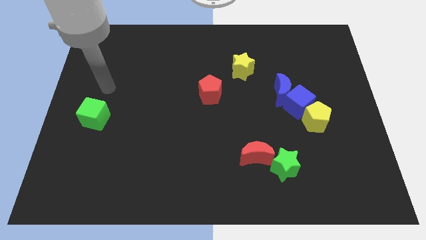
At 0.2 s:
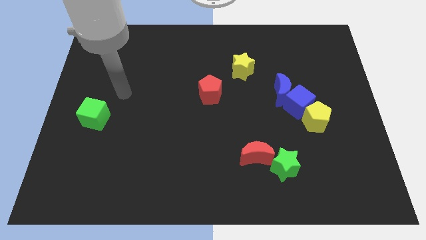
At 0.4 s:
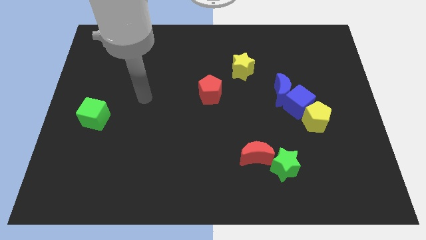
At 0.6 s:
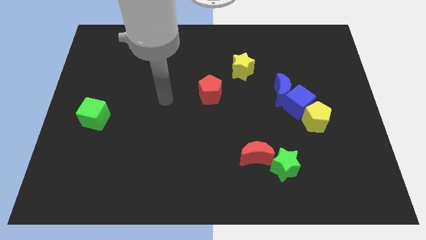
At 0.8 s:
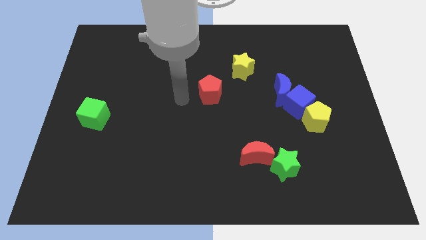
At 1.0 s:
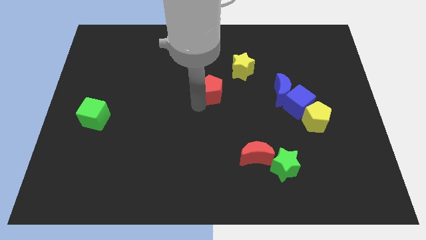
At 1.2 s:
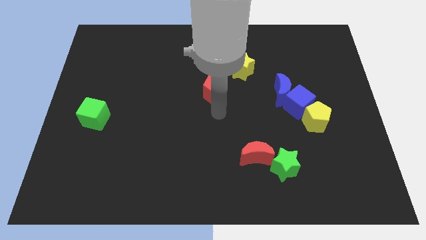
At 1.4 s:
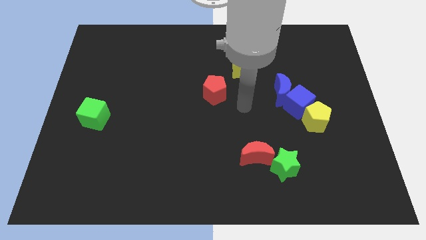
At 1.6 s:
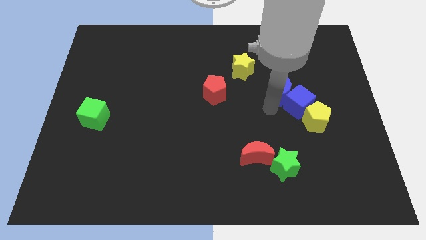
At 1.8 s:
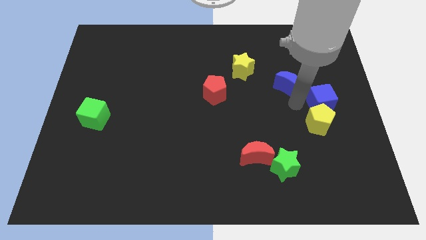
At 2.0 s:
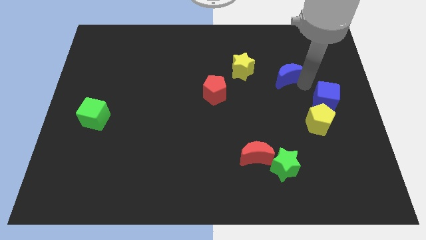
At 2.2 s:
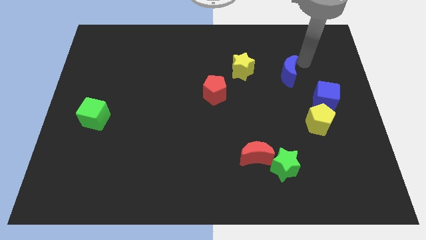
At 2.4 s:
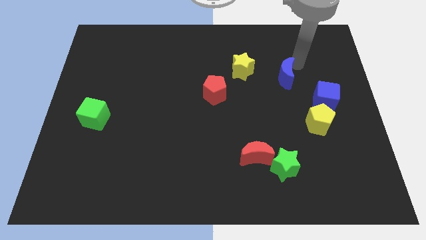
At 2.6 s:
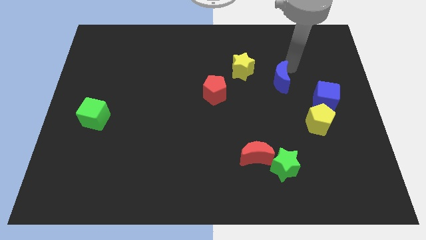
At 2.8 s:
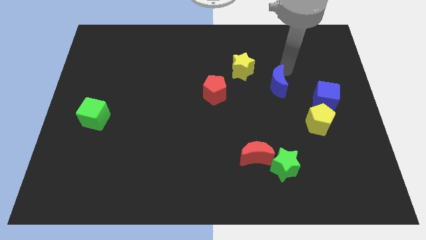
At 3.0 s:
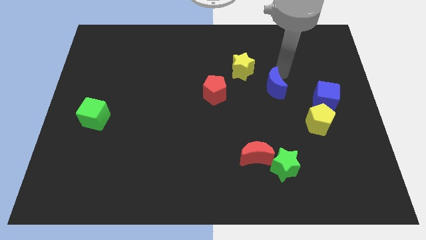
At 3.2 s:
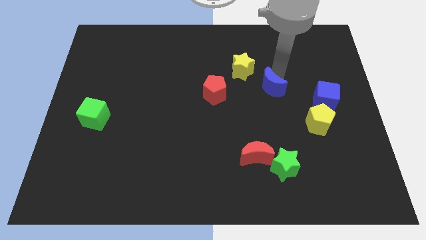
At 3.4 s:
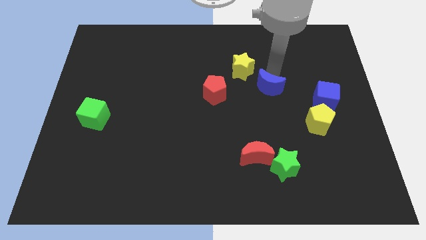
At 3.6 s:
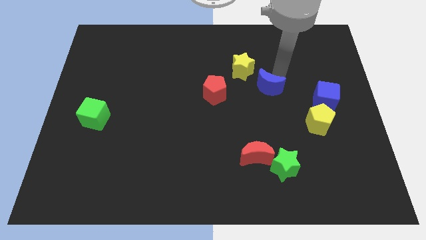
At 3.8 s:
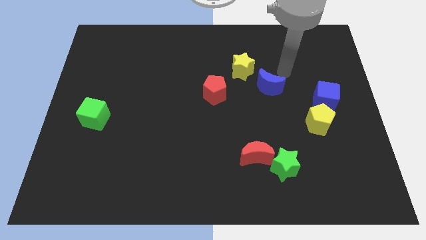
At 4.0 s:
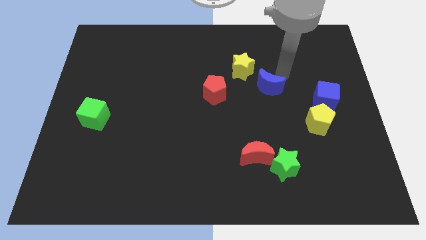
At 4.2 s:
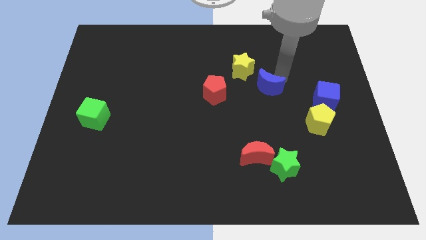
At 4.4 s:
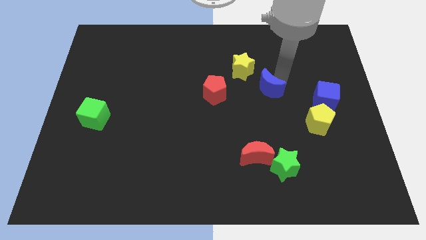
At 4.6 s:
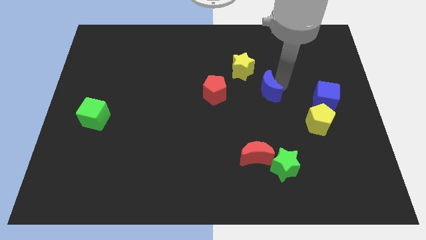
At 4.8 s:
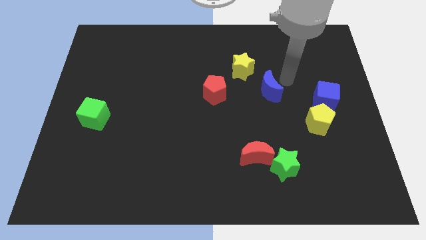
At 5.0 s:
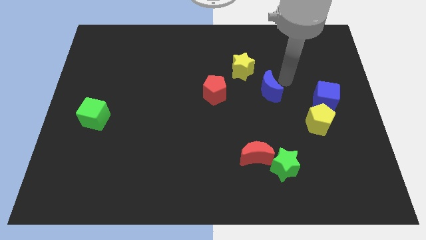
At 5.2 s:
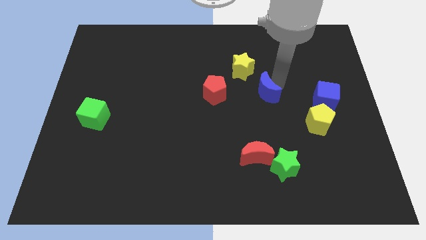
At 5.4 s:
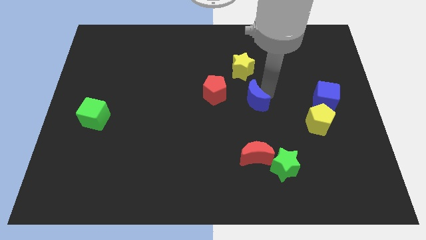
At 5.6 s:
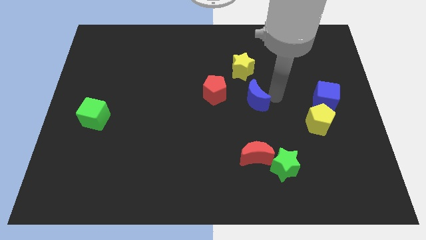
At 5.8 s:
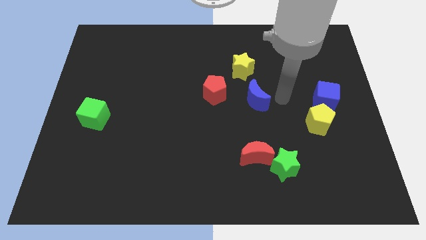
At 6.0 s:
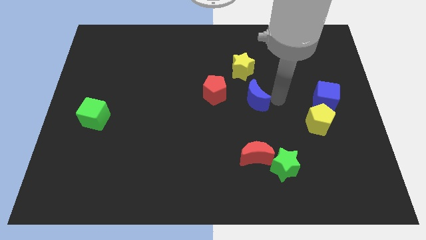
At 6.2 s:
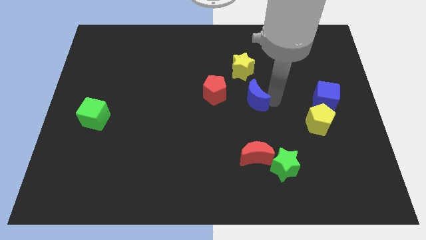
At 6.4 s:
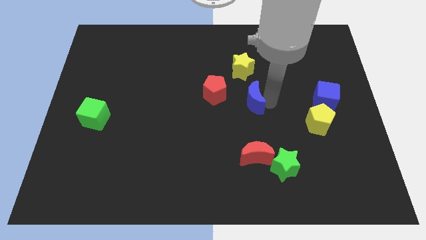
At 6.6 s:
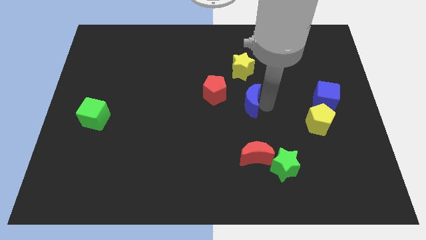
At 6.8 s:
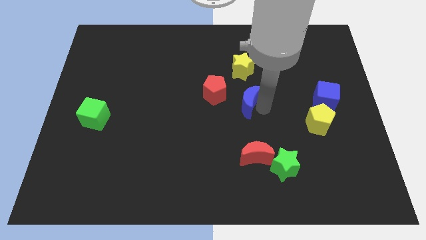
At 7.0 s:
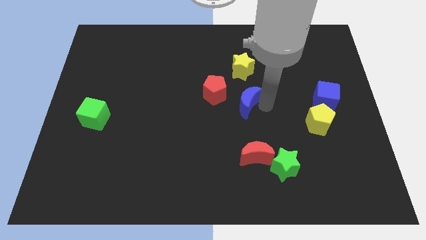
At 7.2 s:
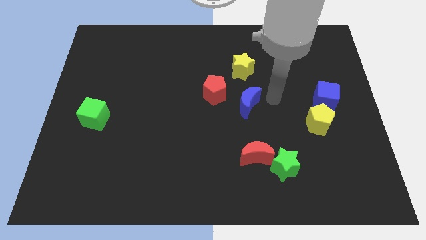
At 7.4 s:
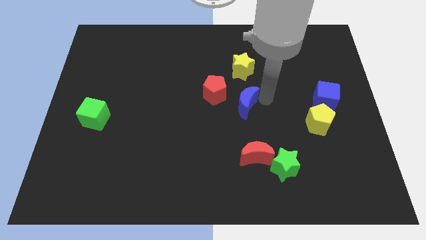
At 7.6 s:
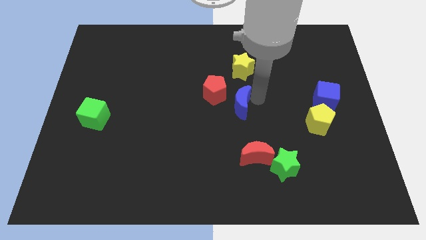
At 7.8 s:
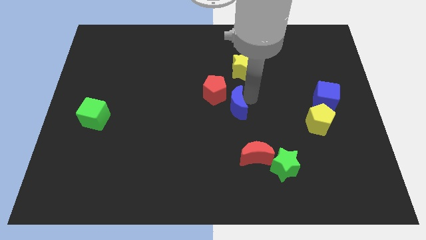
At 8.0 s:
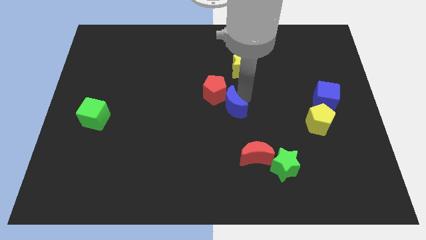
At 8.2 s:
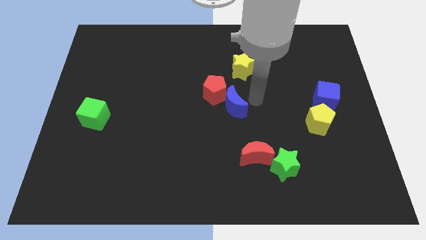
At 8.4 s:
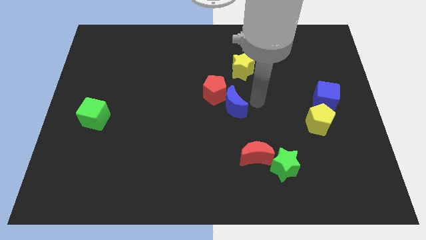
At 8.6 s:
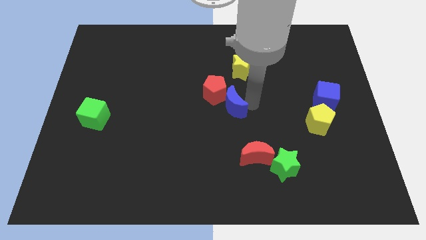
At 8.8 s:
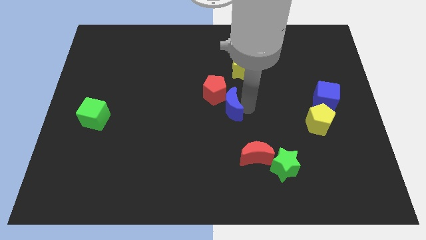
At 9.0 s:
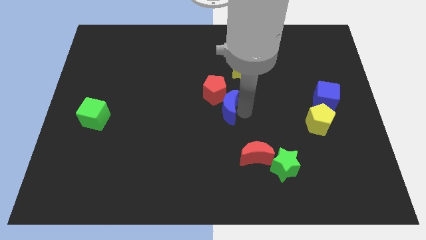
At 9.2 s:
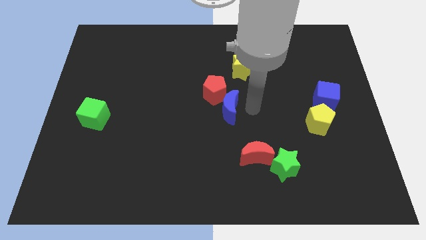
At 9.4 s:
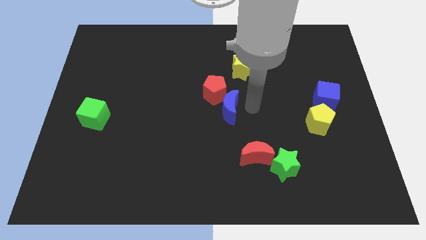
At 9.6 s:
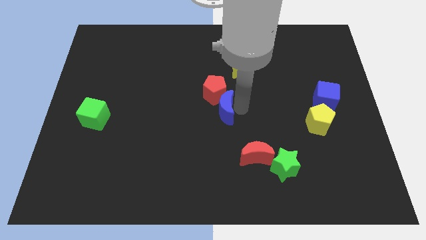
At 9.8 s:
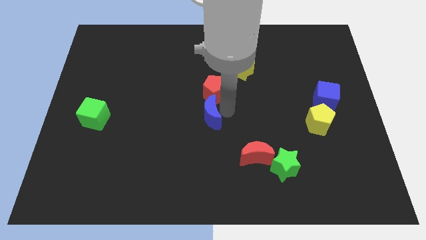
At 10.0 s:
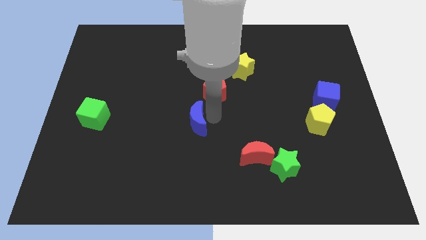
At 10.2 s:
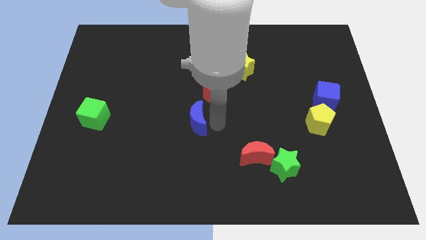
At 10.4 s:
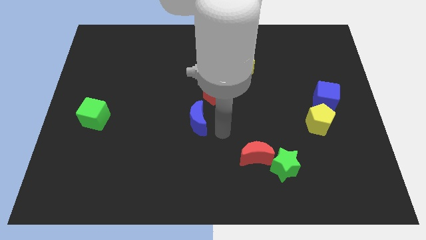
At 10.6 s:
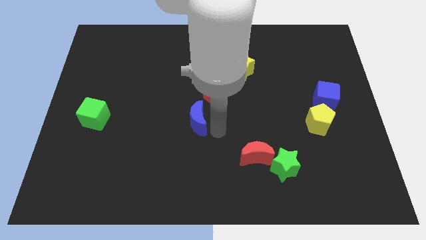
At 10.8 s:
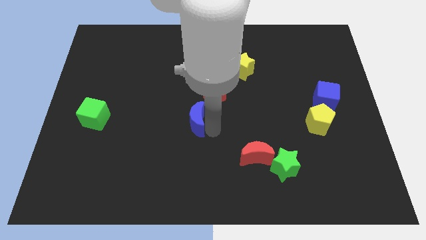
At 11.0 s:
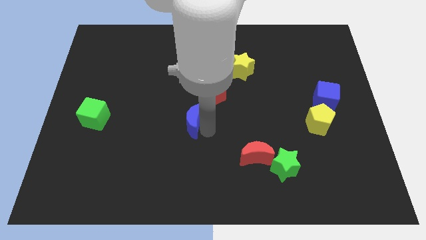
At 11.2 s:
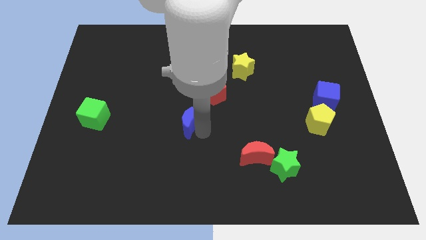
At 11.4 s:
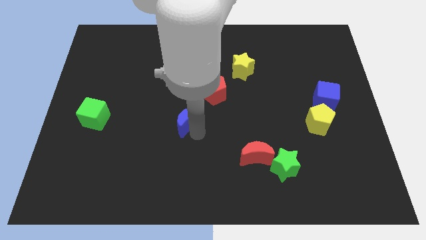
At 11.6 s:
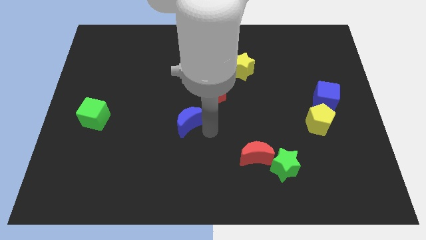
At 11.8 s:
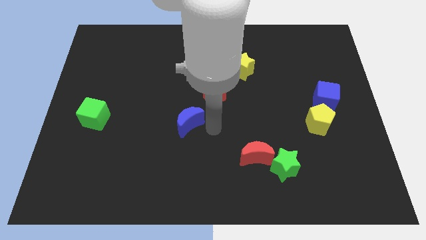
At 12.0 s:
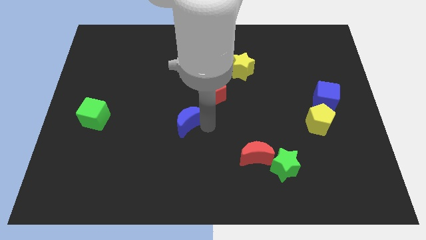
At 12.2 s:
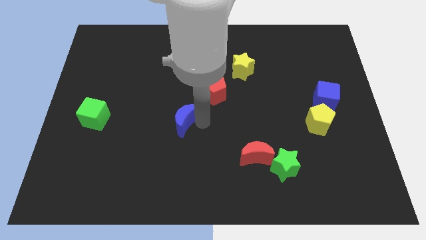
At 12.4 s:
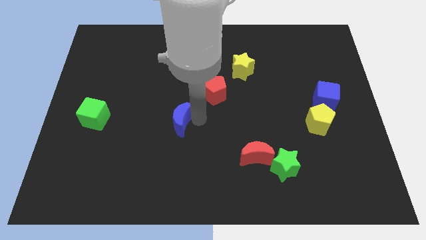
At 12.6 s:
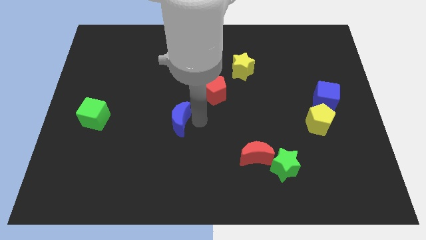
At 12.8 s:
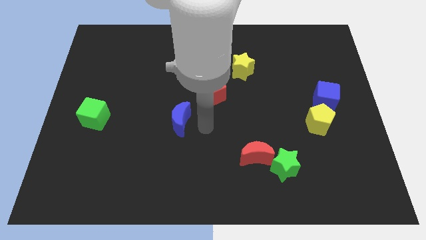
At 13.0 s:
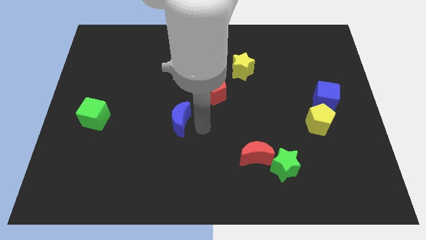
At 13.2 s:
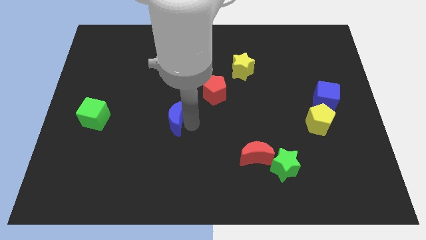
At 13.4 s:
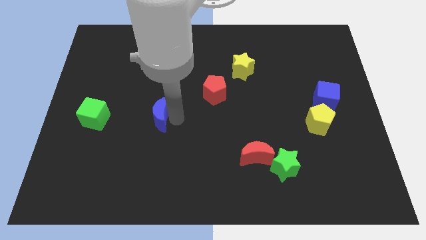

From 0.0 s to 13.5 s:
put the blue moon right of the green cube

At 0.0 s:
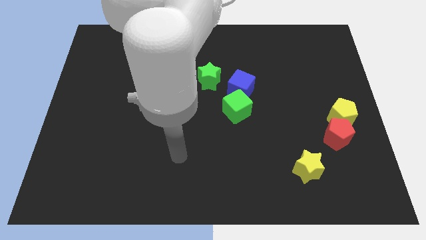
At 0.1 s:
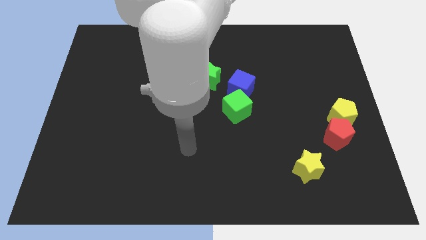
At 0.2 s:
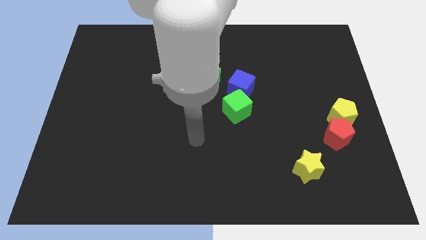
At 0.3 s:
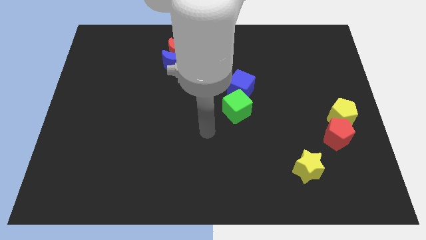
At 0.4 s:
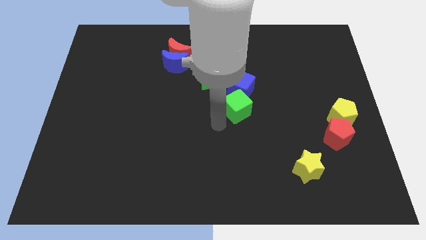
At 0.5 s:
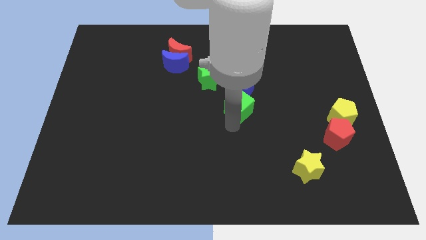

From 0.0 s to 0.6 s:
slide the blue cube diagonally up and to the left of the green cube
